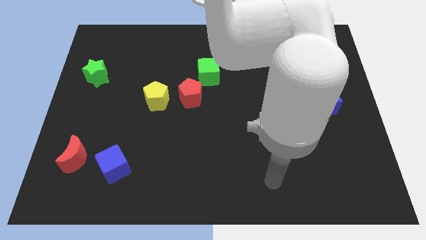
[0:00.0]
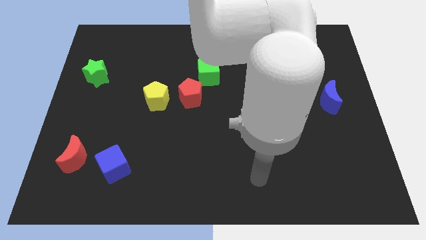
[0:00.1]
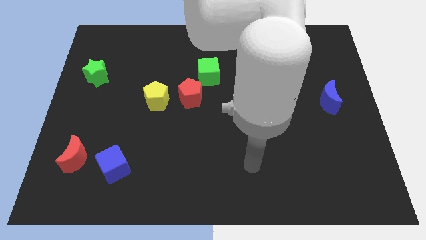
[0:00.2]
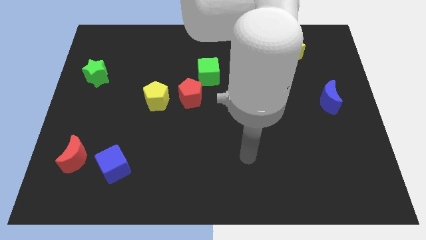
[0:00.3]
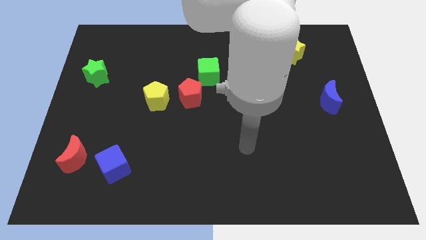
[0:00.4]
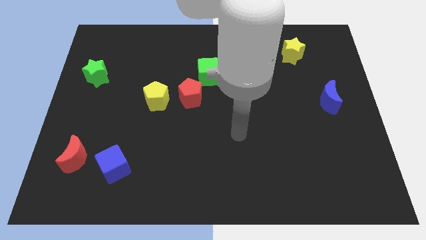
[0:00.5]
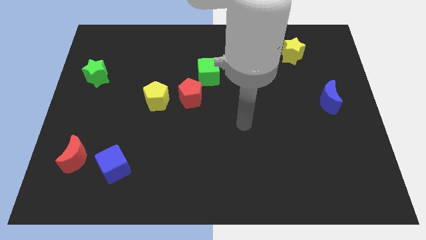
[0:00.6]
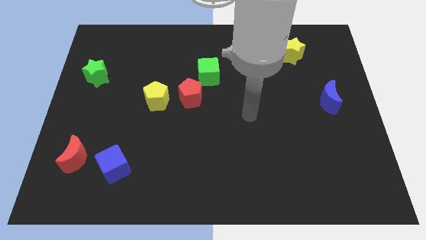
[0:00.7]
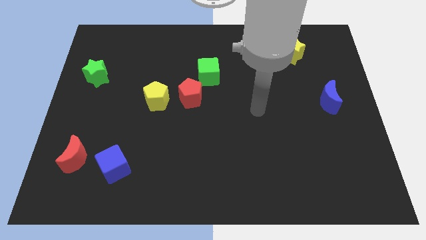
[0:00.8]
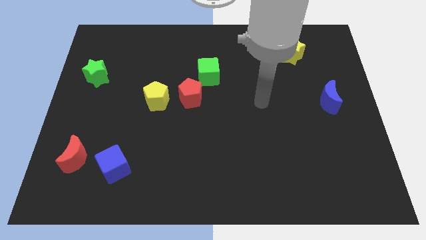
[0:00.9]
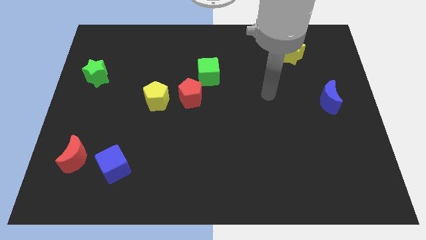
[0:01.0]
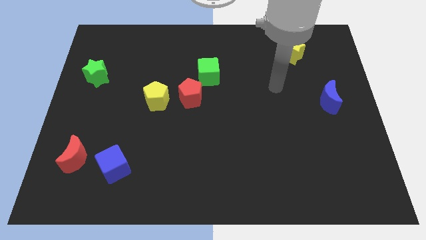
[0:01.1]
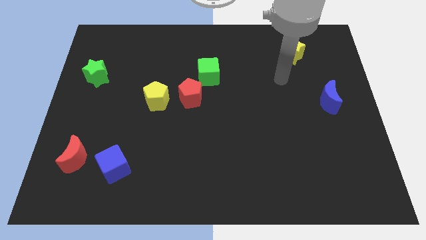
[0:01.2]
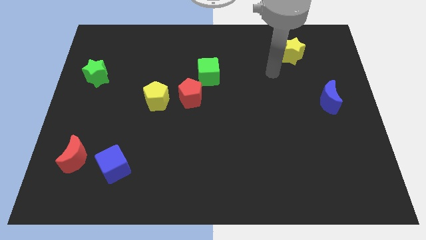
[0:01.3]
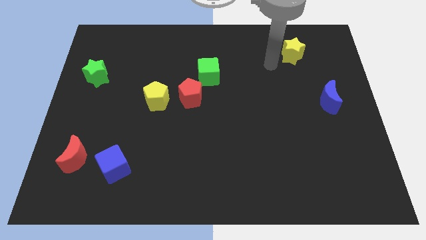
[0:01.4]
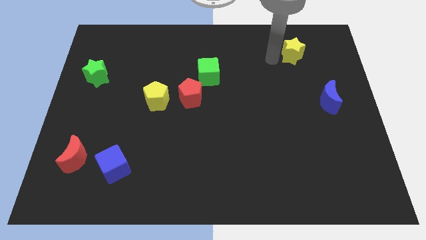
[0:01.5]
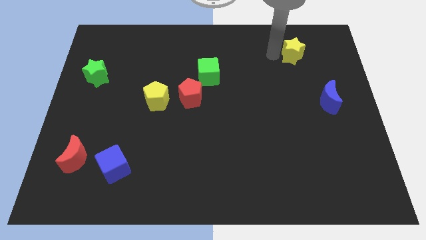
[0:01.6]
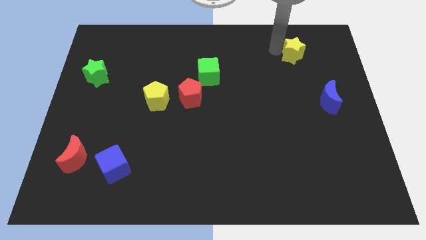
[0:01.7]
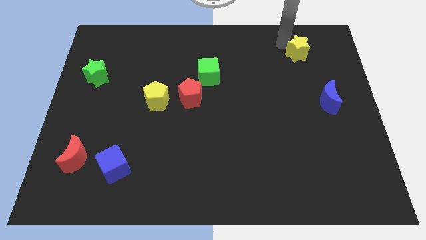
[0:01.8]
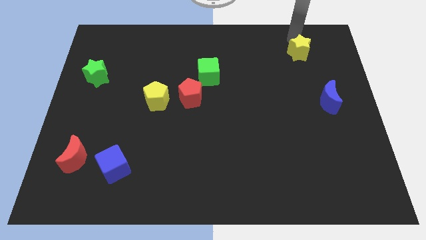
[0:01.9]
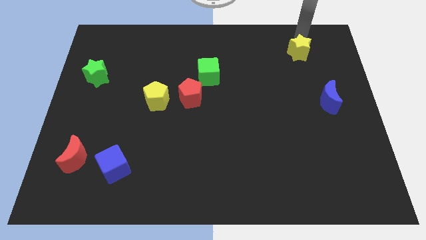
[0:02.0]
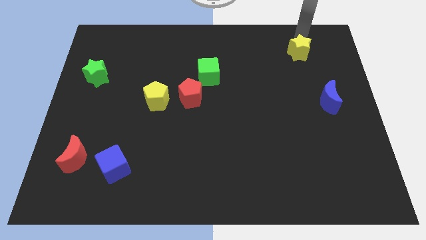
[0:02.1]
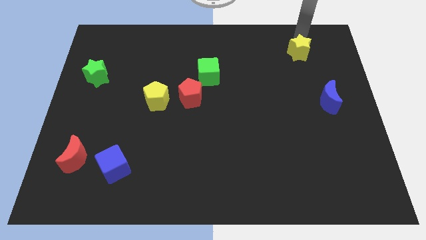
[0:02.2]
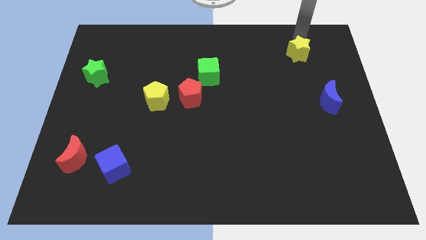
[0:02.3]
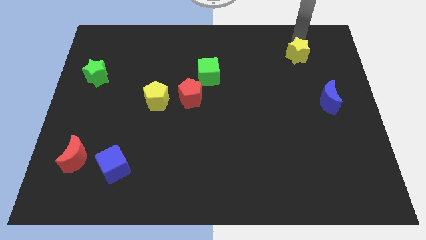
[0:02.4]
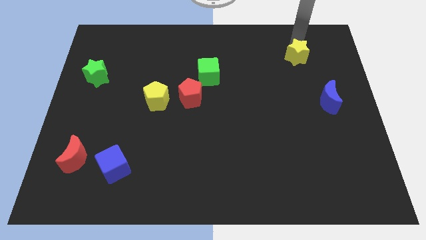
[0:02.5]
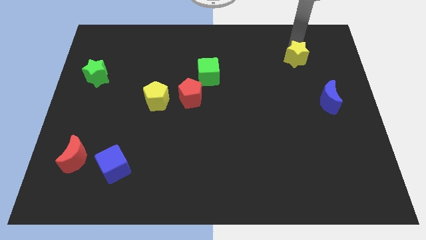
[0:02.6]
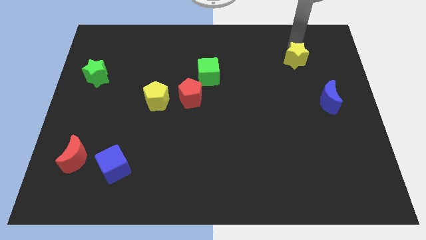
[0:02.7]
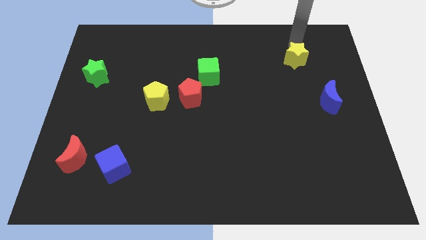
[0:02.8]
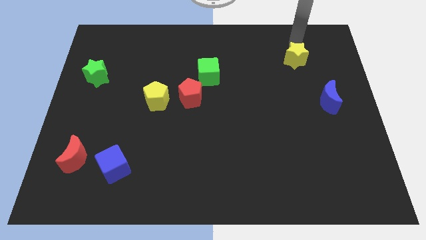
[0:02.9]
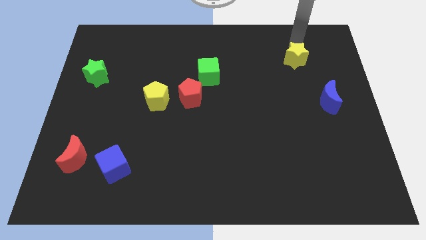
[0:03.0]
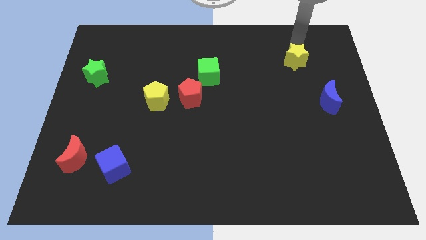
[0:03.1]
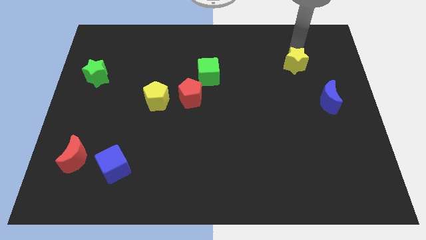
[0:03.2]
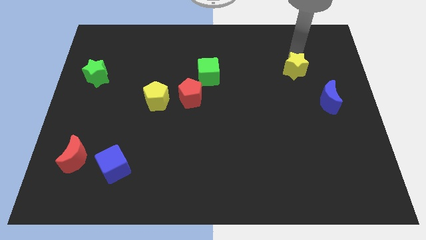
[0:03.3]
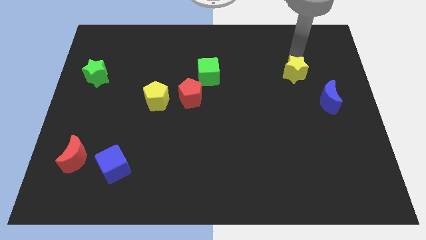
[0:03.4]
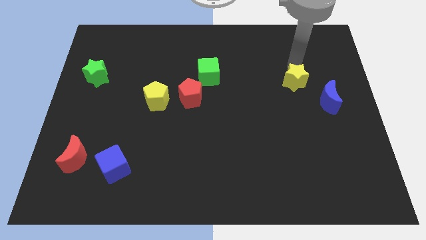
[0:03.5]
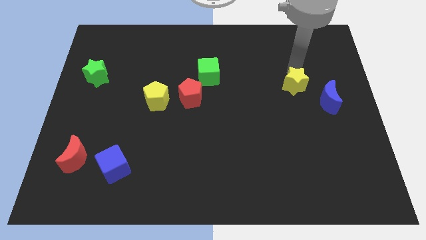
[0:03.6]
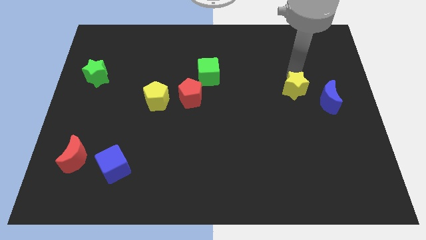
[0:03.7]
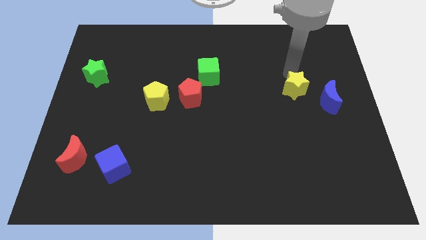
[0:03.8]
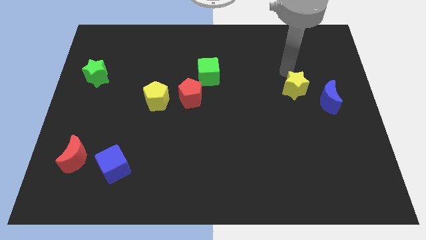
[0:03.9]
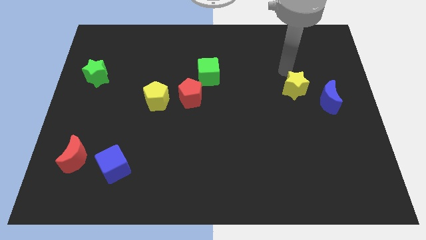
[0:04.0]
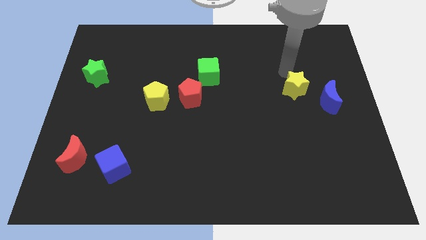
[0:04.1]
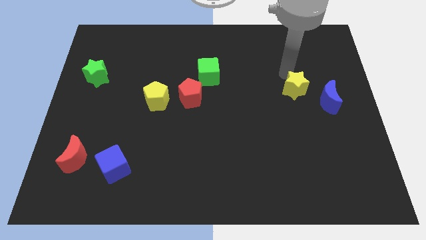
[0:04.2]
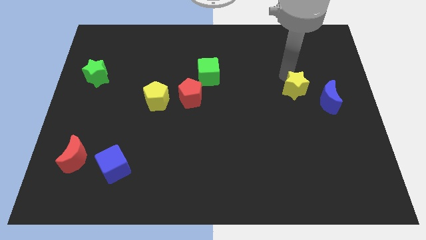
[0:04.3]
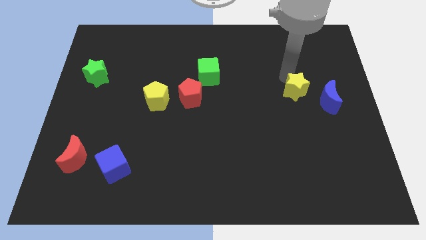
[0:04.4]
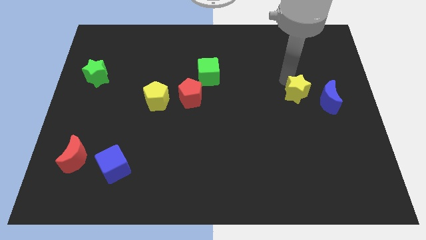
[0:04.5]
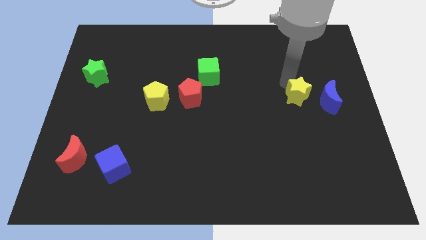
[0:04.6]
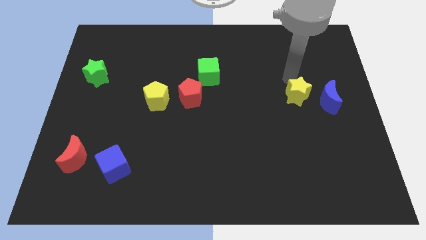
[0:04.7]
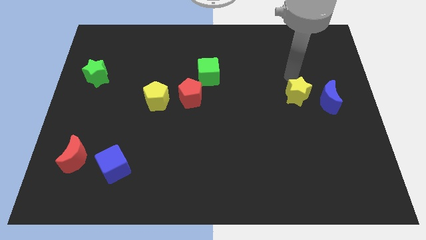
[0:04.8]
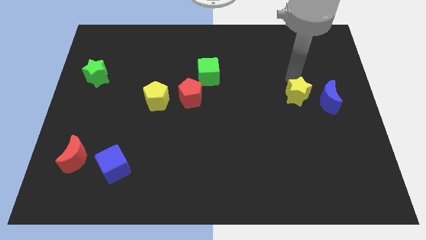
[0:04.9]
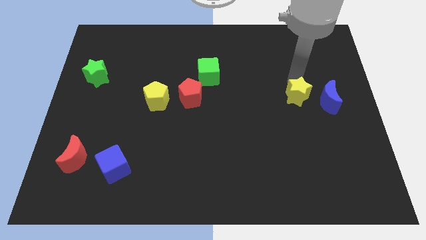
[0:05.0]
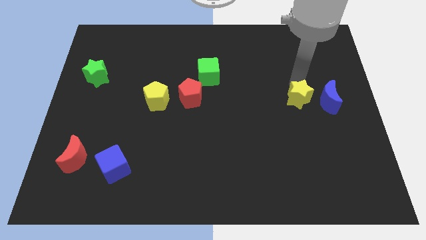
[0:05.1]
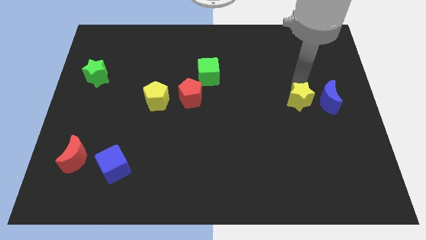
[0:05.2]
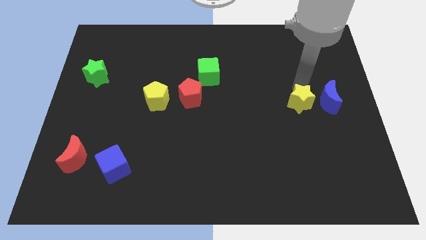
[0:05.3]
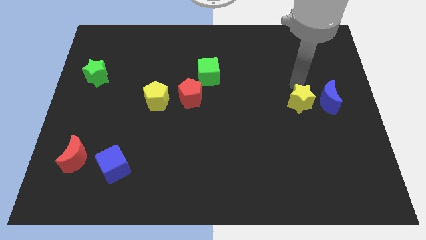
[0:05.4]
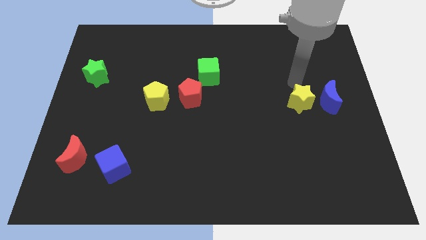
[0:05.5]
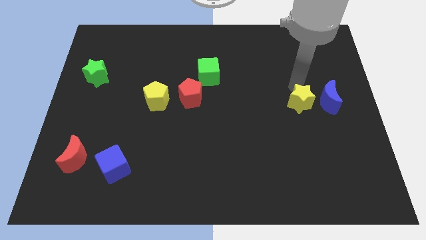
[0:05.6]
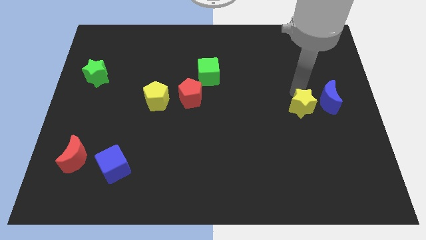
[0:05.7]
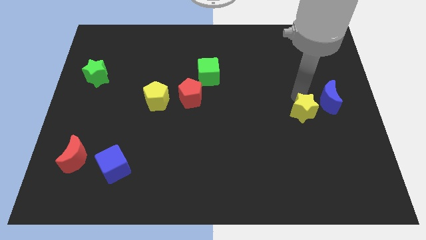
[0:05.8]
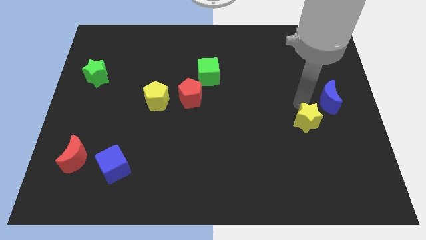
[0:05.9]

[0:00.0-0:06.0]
move the yellow star down

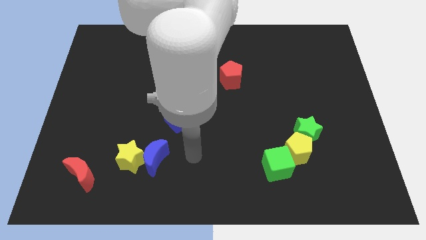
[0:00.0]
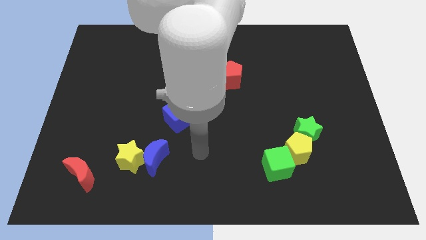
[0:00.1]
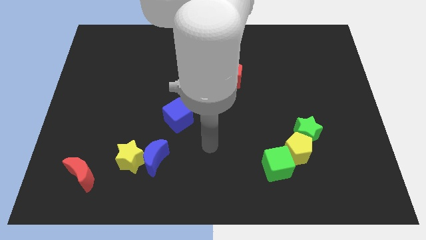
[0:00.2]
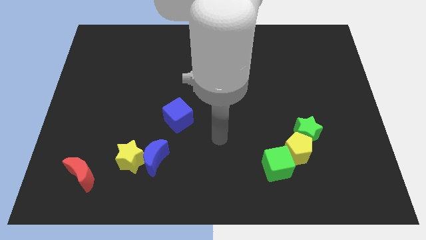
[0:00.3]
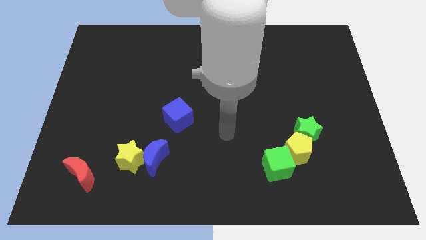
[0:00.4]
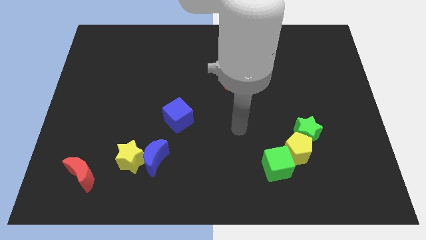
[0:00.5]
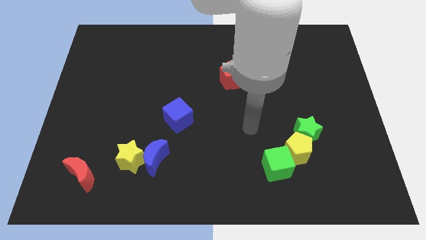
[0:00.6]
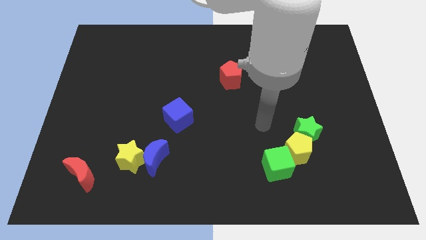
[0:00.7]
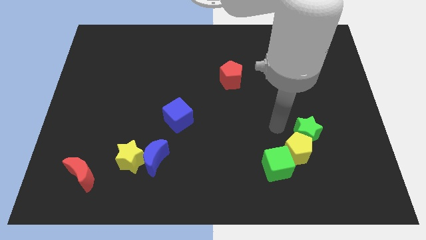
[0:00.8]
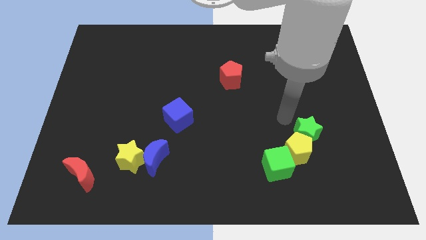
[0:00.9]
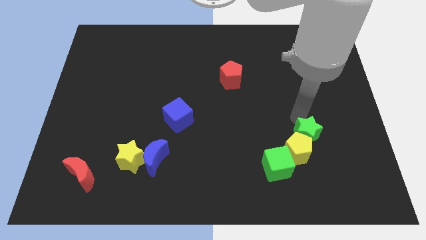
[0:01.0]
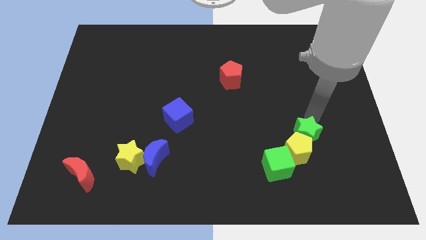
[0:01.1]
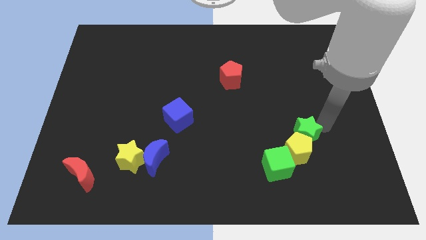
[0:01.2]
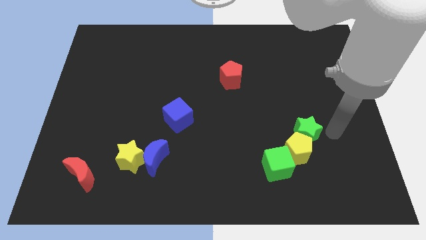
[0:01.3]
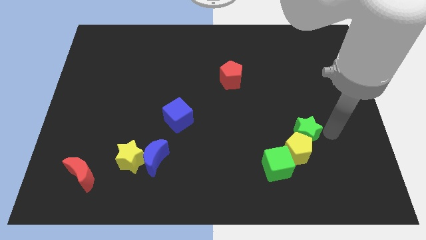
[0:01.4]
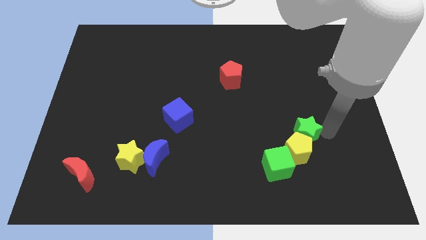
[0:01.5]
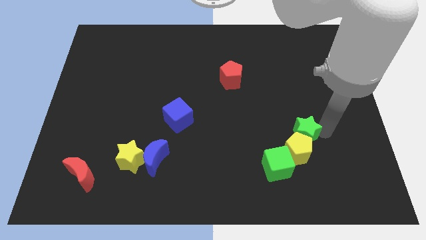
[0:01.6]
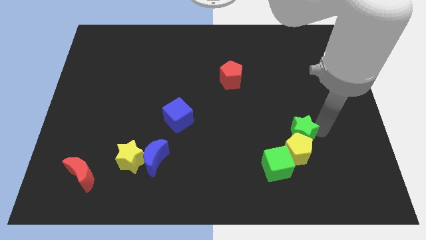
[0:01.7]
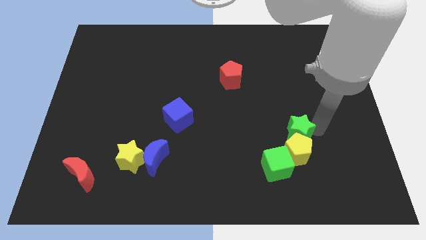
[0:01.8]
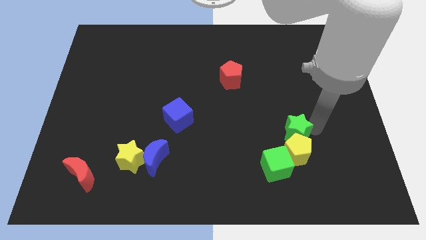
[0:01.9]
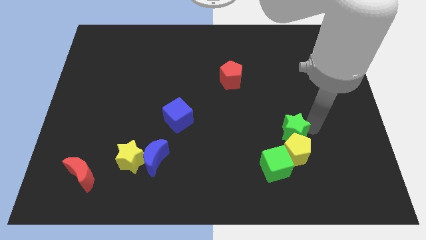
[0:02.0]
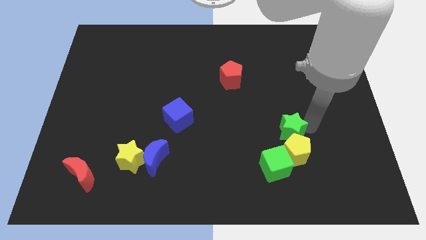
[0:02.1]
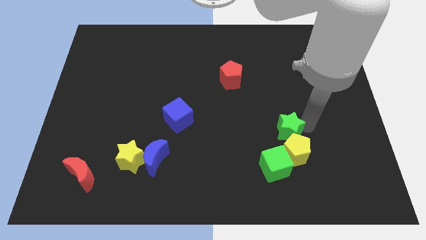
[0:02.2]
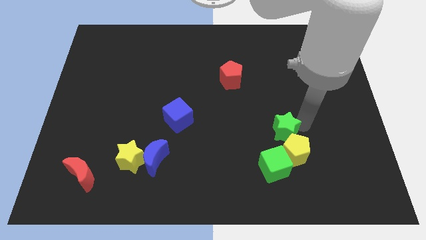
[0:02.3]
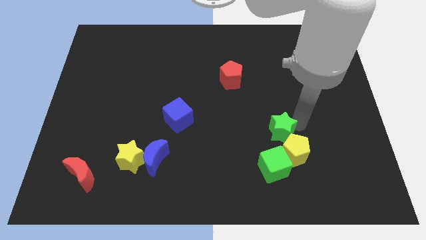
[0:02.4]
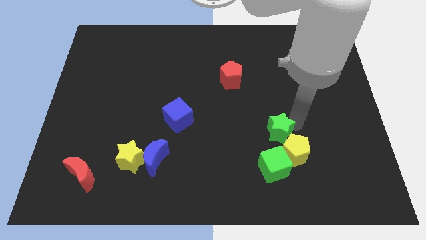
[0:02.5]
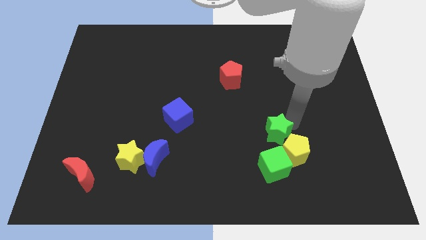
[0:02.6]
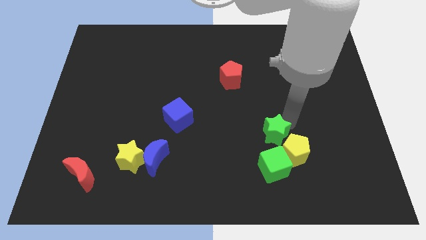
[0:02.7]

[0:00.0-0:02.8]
push the green star slightly left
